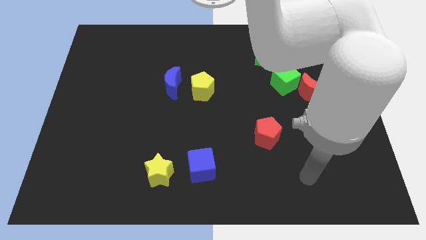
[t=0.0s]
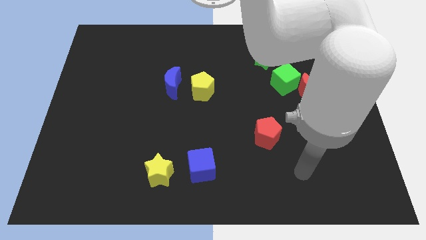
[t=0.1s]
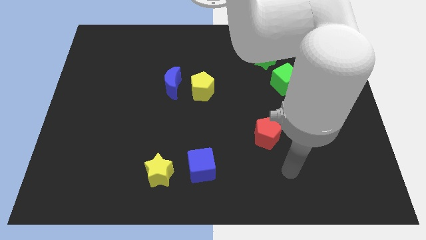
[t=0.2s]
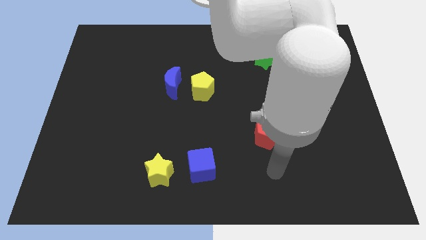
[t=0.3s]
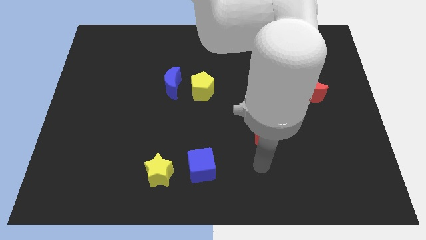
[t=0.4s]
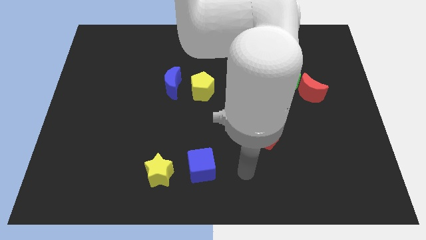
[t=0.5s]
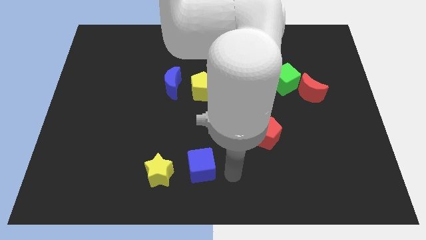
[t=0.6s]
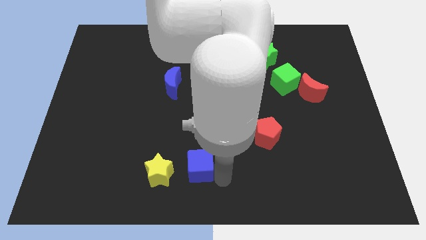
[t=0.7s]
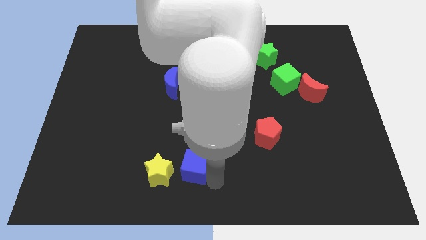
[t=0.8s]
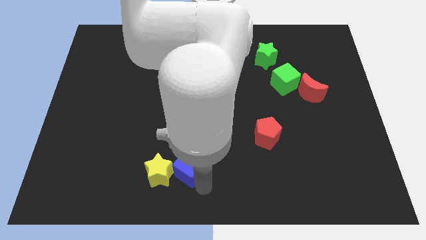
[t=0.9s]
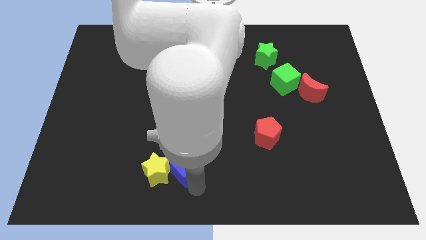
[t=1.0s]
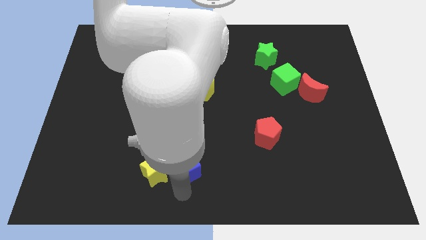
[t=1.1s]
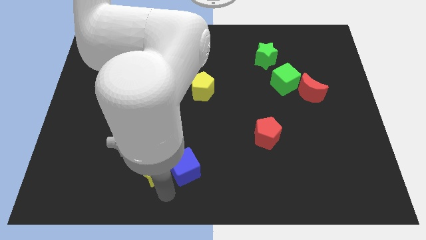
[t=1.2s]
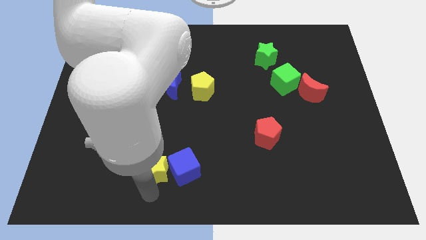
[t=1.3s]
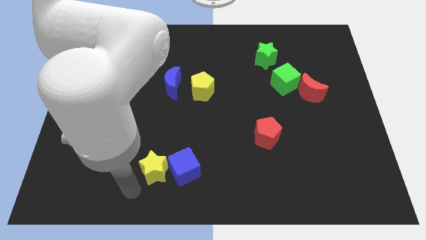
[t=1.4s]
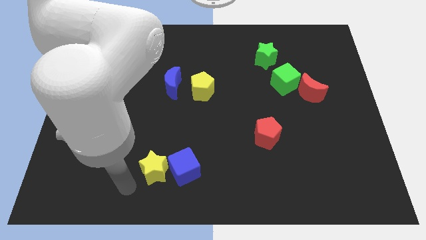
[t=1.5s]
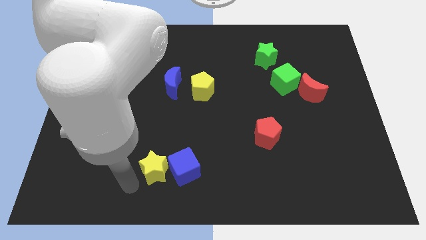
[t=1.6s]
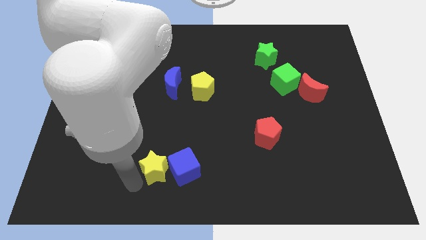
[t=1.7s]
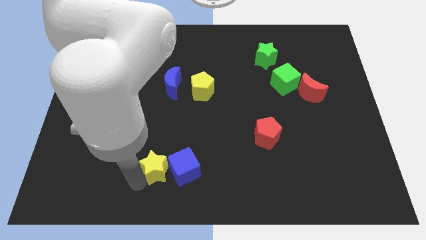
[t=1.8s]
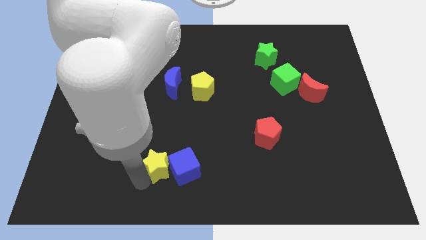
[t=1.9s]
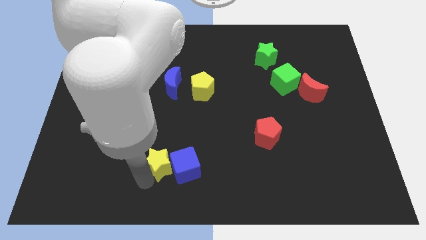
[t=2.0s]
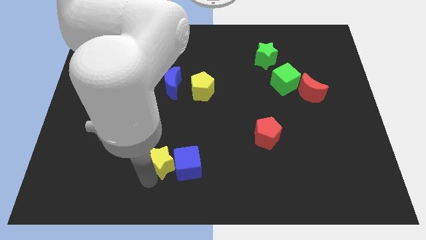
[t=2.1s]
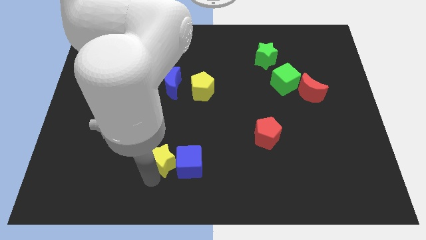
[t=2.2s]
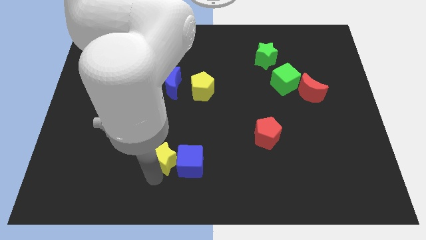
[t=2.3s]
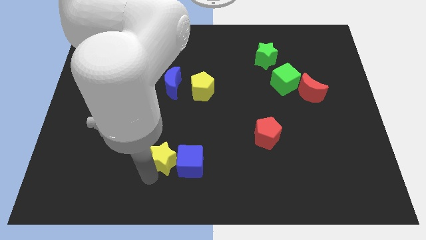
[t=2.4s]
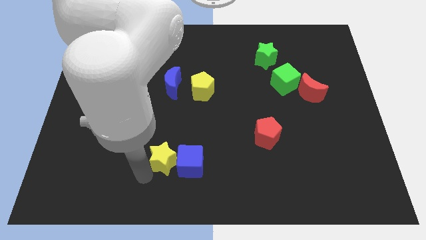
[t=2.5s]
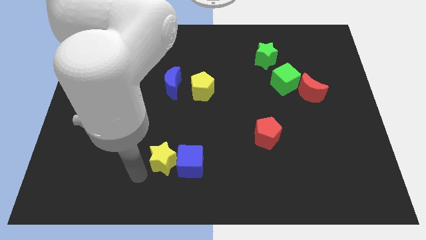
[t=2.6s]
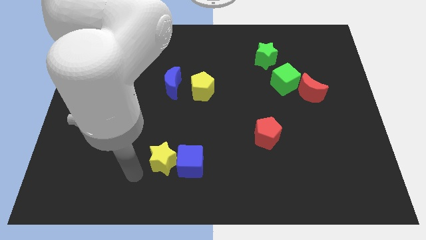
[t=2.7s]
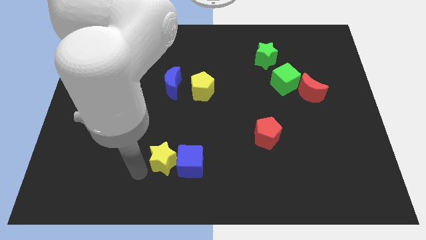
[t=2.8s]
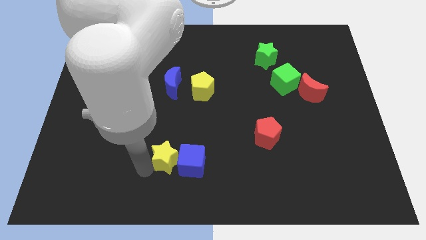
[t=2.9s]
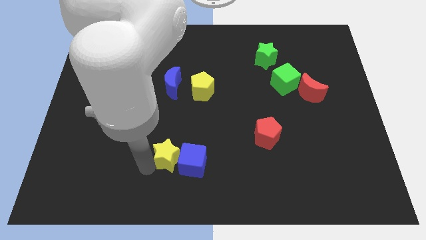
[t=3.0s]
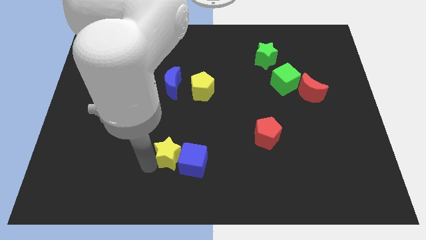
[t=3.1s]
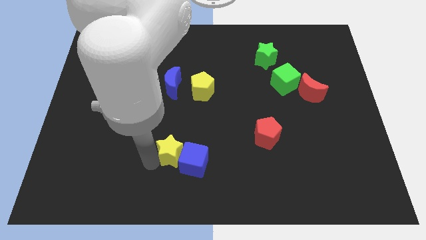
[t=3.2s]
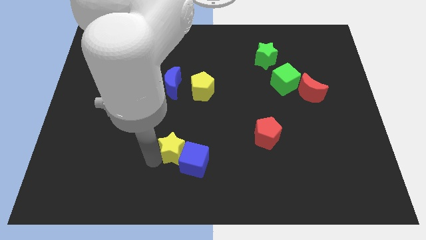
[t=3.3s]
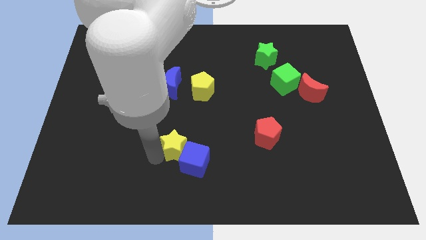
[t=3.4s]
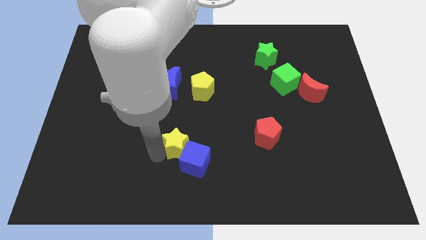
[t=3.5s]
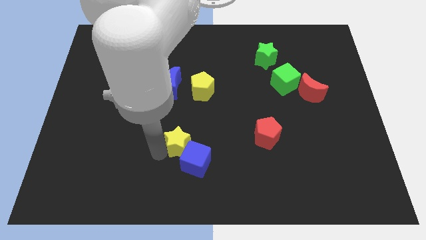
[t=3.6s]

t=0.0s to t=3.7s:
push the yellow star a little bit upwards and to the right diagonally

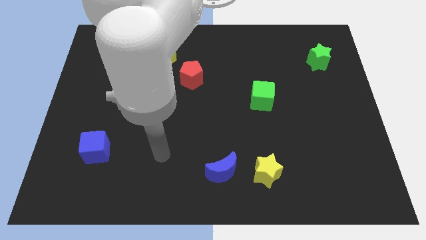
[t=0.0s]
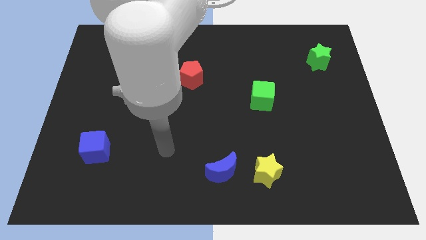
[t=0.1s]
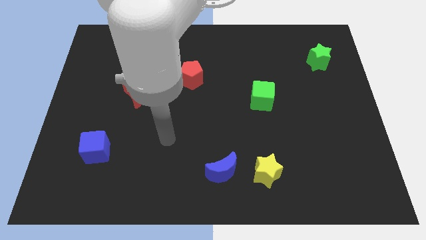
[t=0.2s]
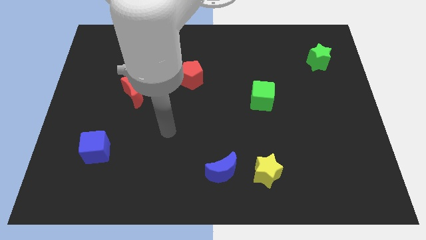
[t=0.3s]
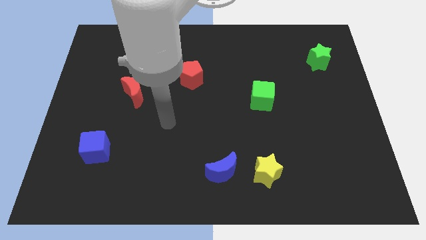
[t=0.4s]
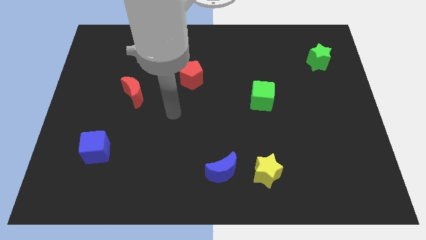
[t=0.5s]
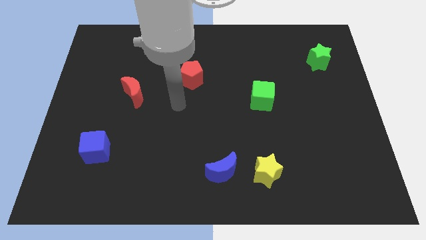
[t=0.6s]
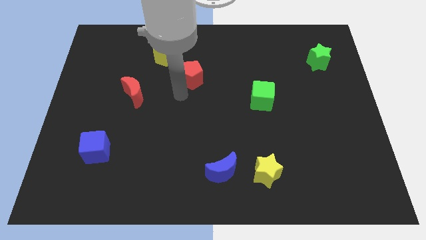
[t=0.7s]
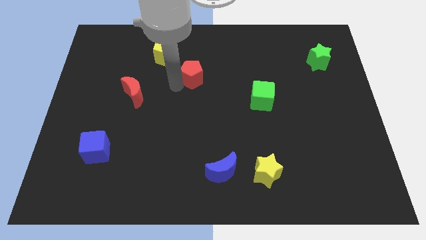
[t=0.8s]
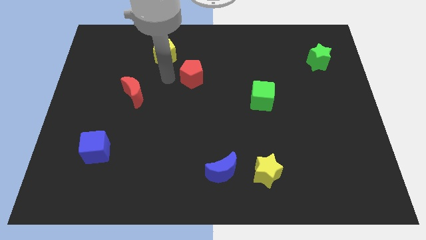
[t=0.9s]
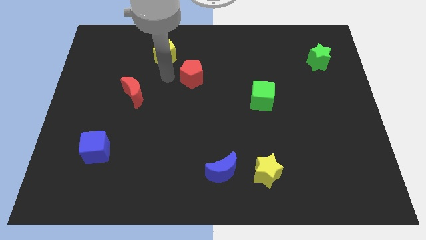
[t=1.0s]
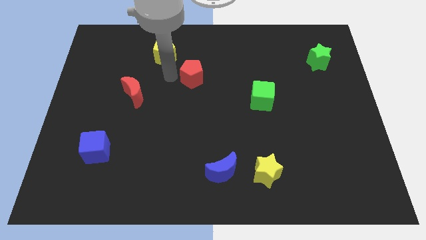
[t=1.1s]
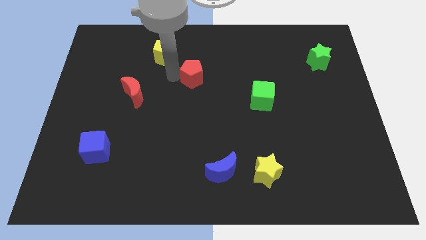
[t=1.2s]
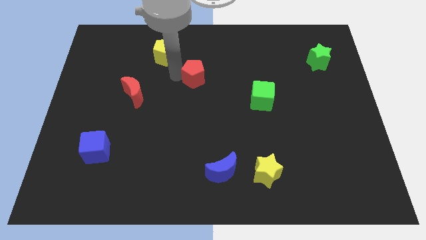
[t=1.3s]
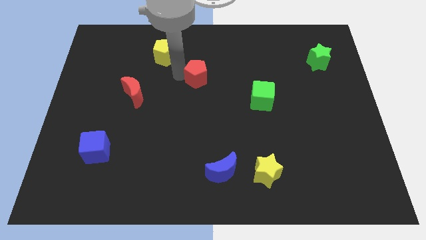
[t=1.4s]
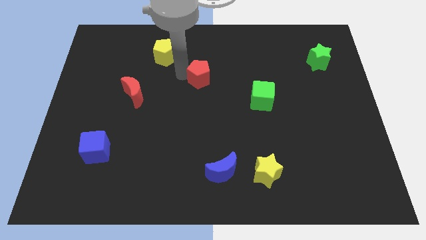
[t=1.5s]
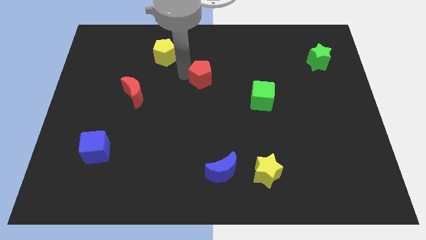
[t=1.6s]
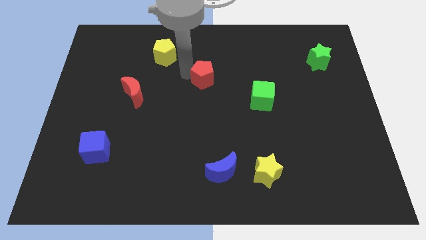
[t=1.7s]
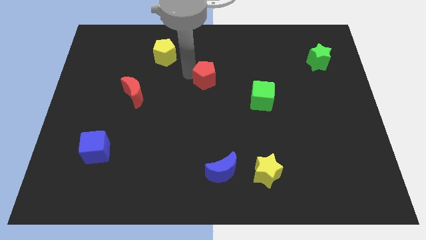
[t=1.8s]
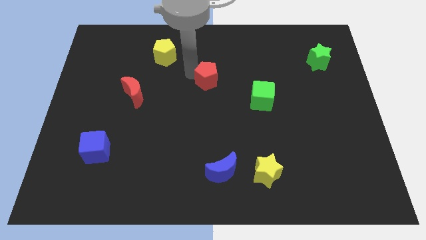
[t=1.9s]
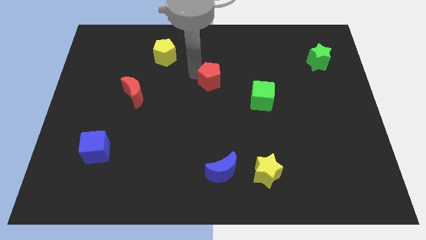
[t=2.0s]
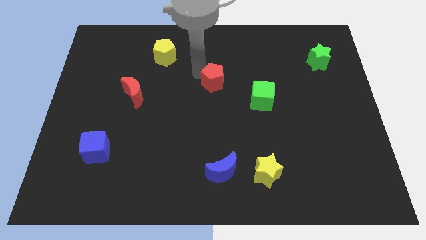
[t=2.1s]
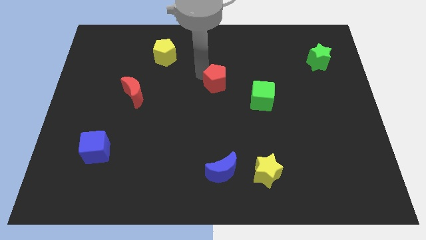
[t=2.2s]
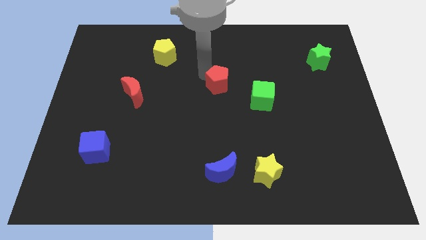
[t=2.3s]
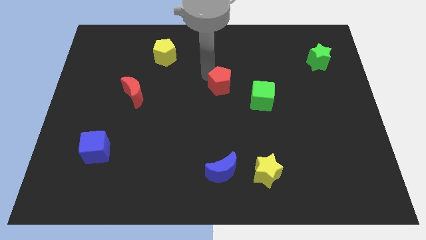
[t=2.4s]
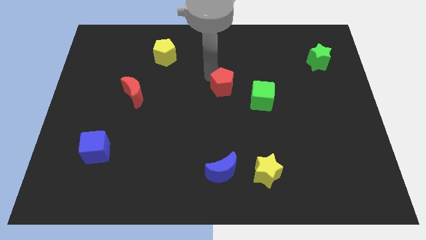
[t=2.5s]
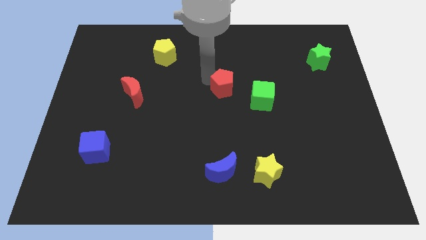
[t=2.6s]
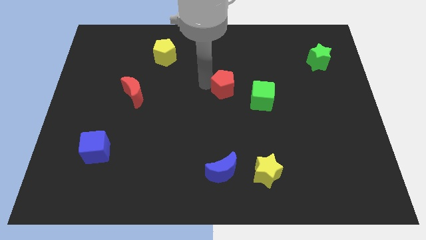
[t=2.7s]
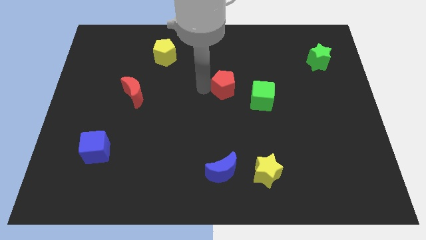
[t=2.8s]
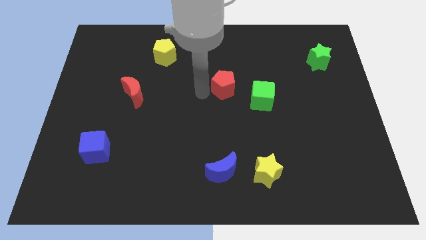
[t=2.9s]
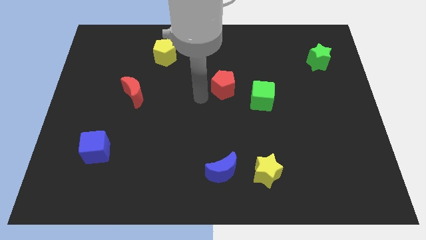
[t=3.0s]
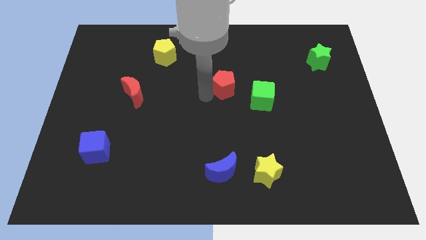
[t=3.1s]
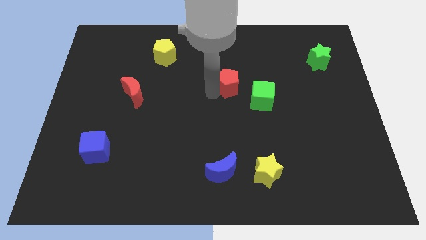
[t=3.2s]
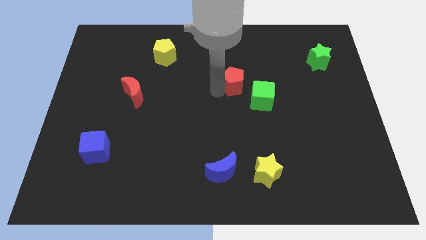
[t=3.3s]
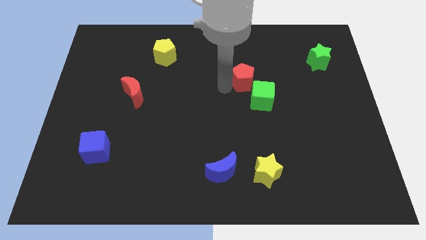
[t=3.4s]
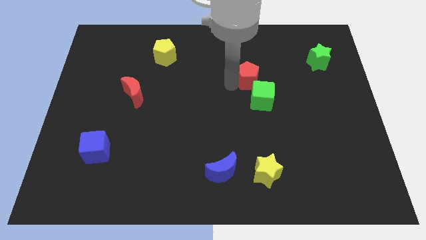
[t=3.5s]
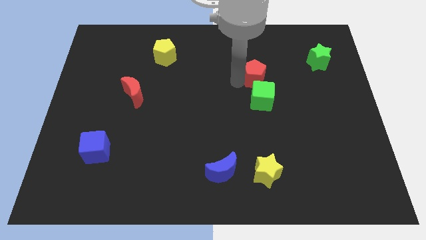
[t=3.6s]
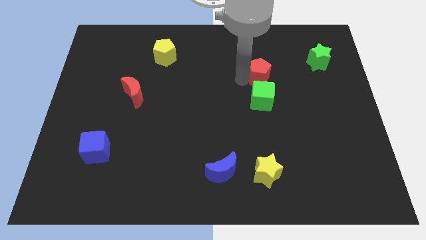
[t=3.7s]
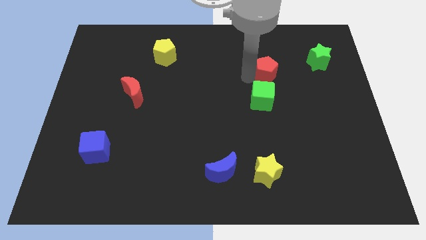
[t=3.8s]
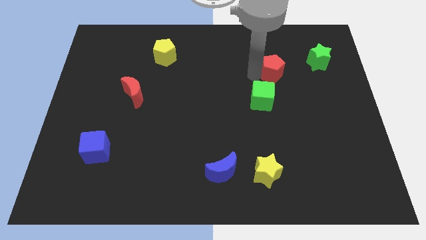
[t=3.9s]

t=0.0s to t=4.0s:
move the red pentagon right
